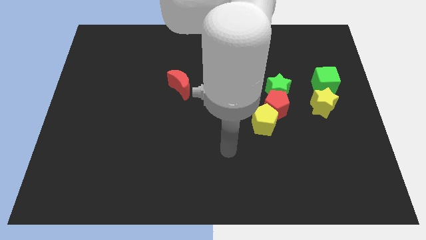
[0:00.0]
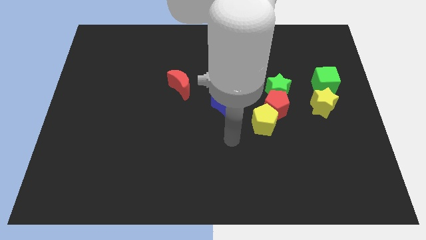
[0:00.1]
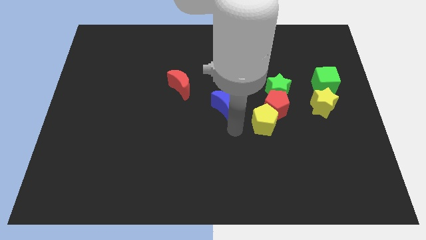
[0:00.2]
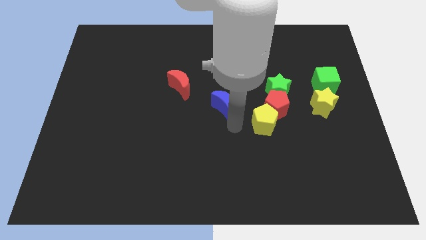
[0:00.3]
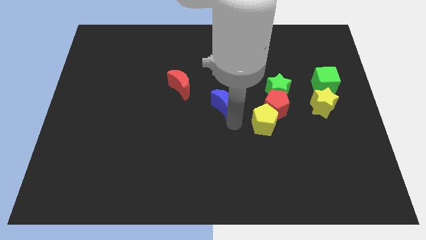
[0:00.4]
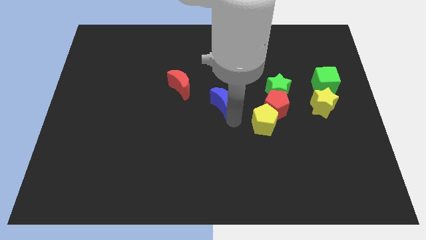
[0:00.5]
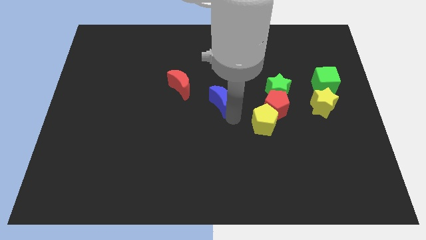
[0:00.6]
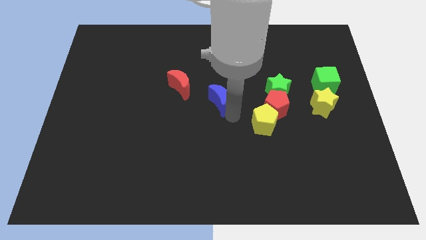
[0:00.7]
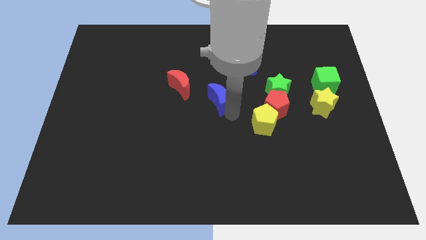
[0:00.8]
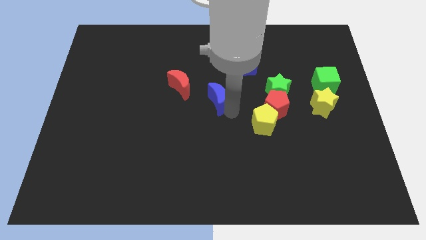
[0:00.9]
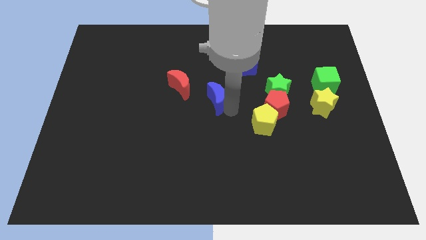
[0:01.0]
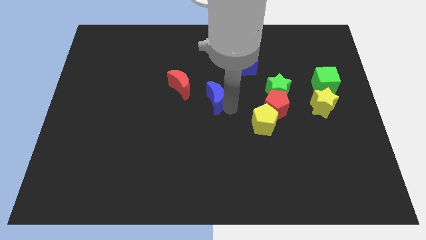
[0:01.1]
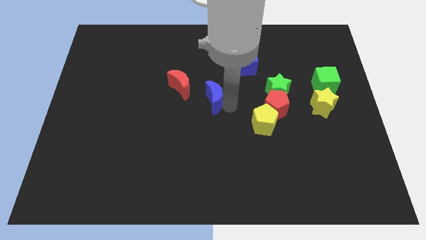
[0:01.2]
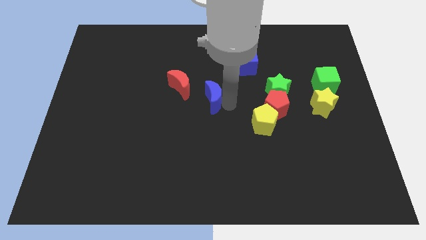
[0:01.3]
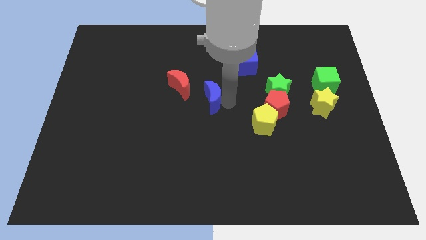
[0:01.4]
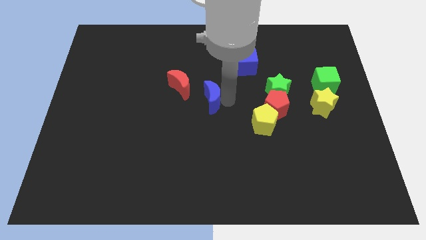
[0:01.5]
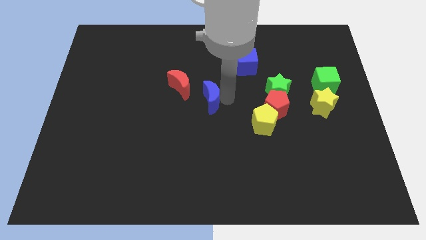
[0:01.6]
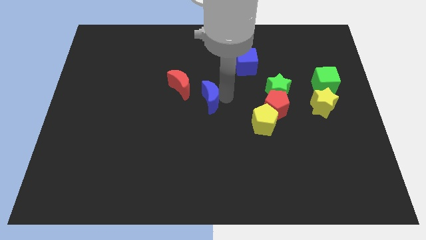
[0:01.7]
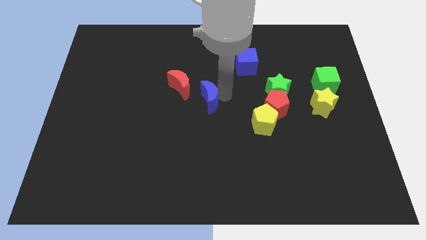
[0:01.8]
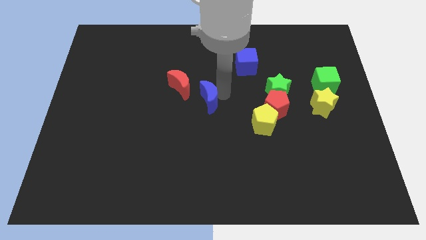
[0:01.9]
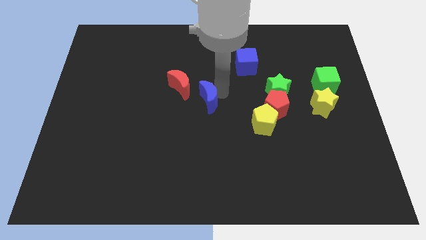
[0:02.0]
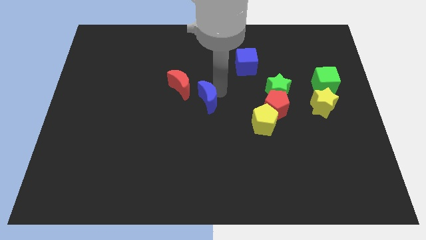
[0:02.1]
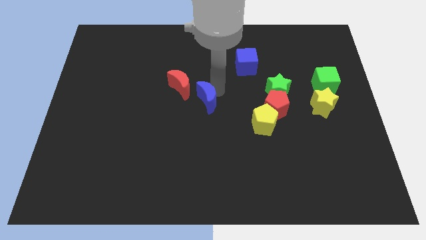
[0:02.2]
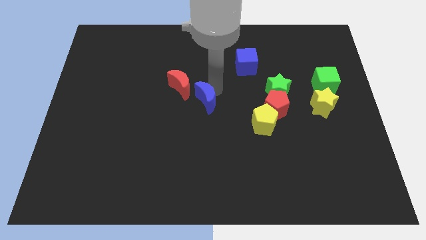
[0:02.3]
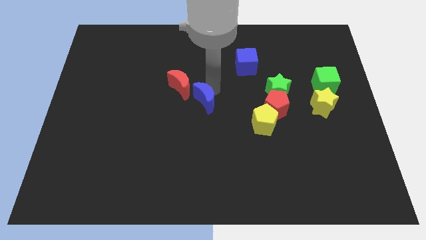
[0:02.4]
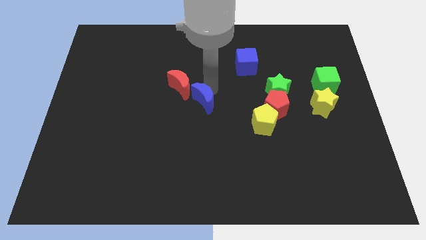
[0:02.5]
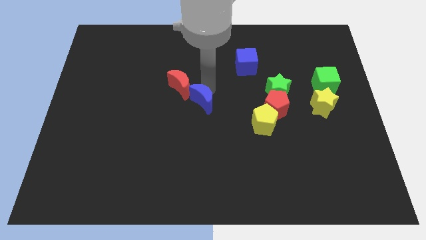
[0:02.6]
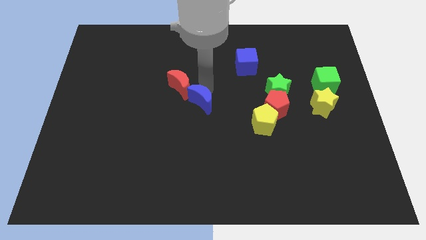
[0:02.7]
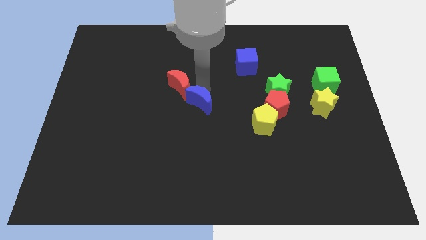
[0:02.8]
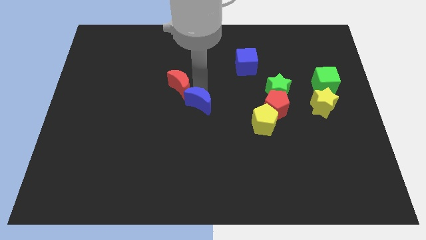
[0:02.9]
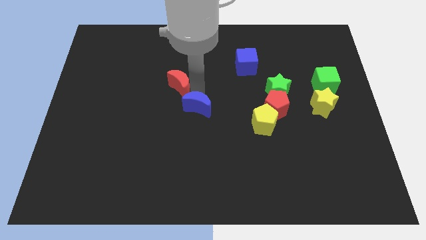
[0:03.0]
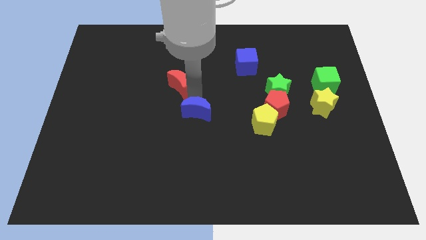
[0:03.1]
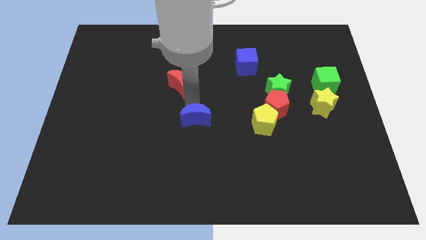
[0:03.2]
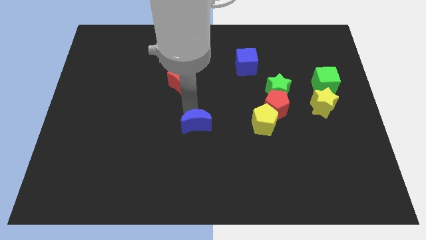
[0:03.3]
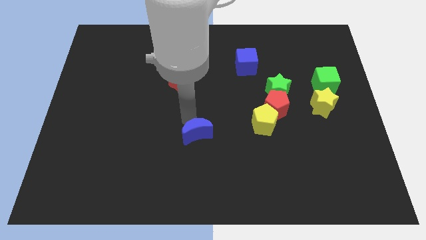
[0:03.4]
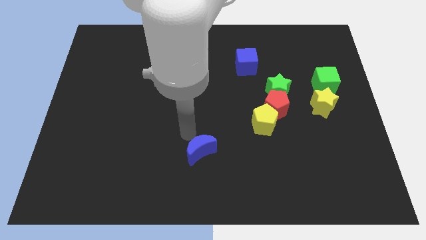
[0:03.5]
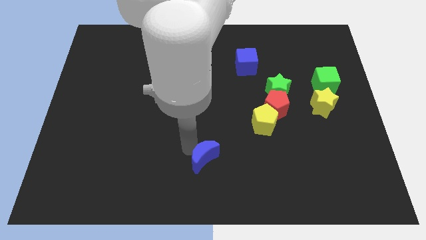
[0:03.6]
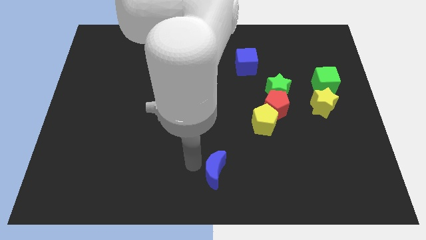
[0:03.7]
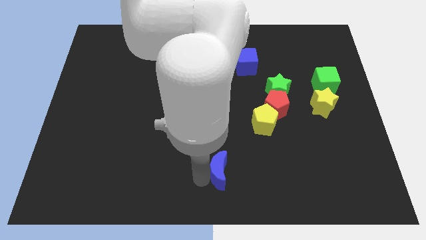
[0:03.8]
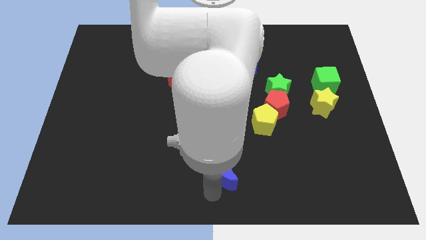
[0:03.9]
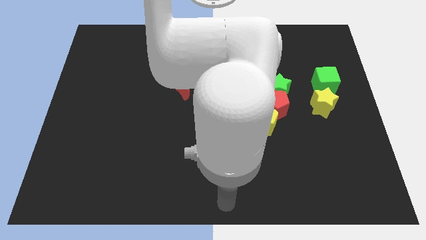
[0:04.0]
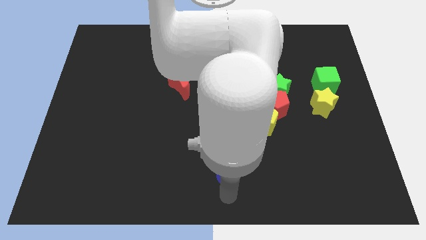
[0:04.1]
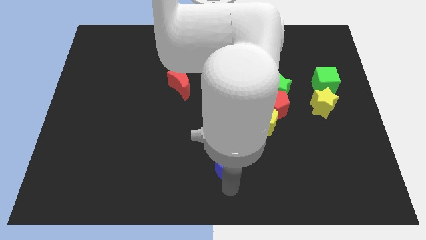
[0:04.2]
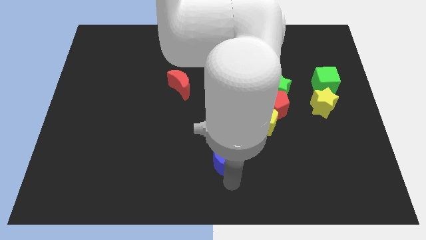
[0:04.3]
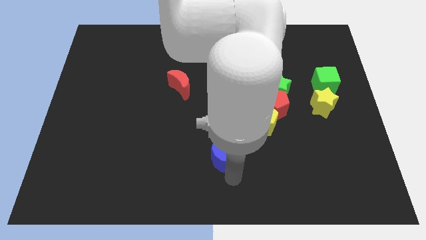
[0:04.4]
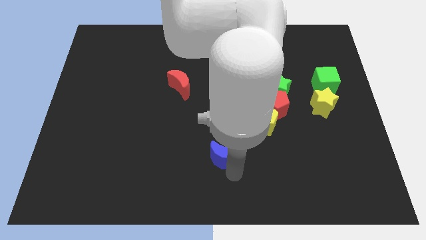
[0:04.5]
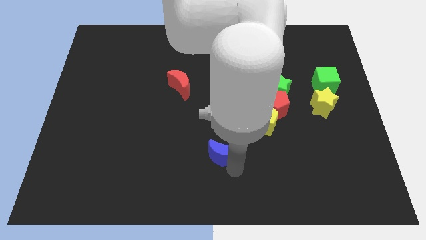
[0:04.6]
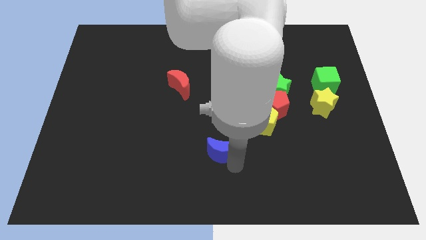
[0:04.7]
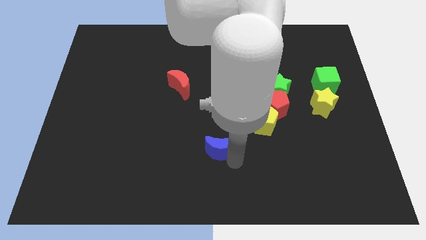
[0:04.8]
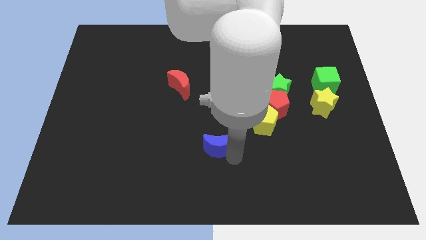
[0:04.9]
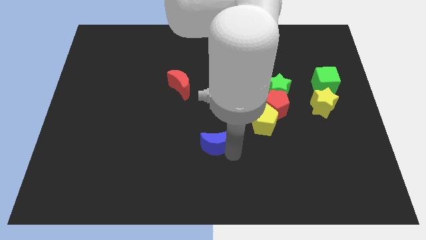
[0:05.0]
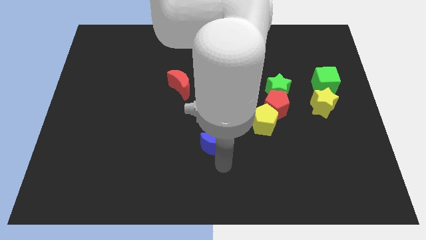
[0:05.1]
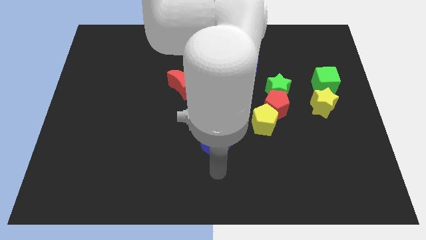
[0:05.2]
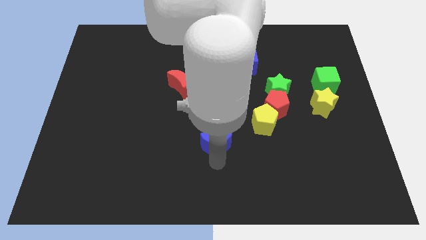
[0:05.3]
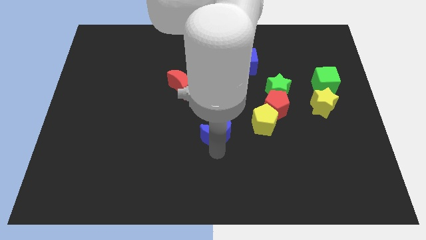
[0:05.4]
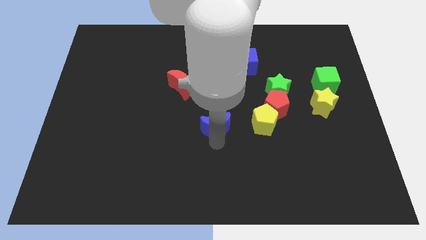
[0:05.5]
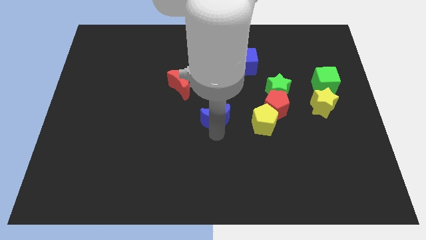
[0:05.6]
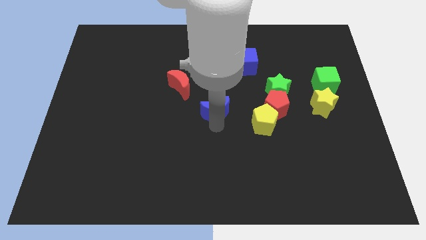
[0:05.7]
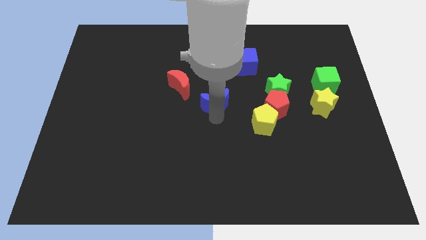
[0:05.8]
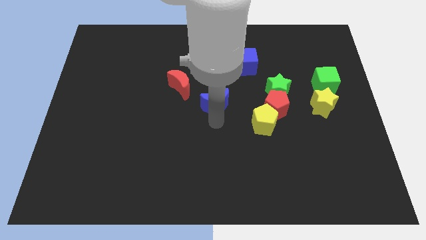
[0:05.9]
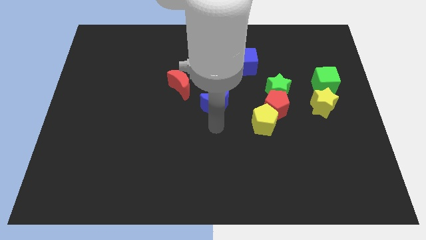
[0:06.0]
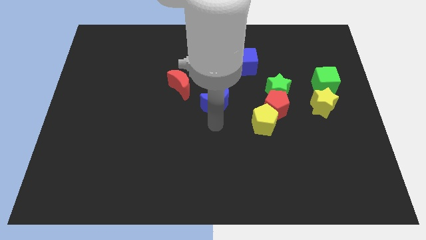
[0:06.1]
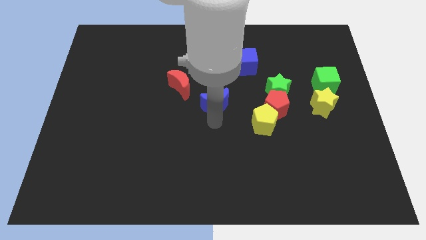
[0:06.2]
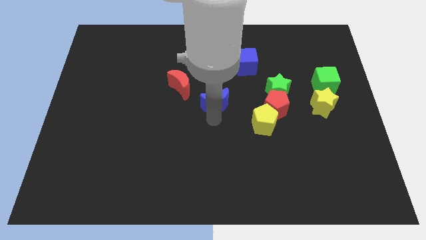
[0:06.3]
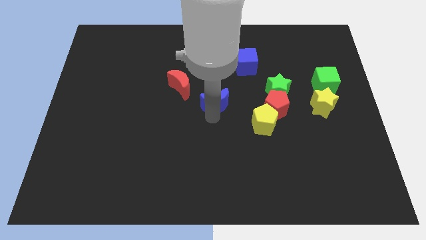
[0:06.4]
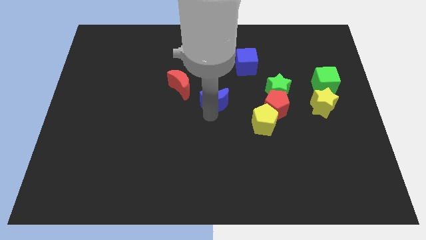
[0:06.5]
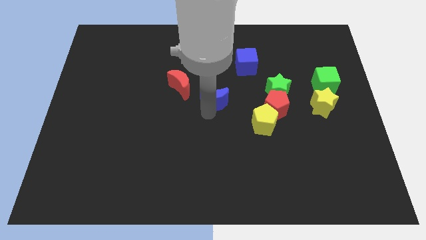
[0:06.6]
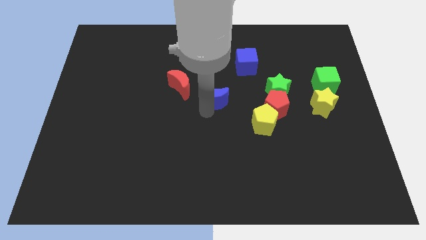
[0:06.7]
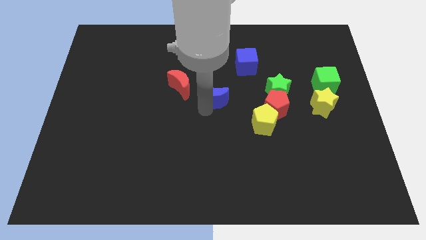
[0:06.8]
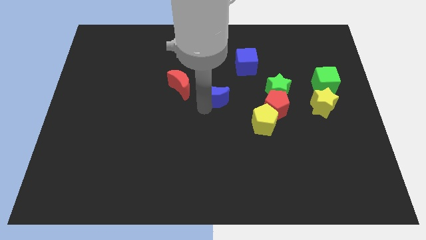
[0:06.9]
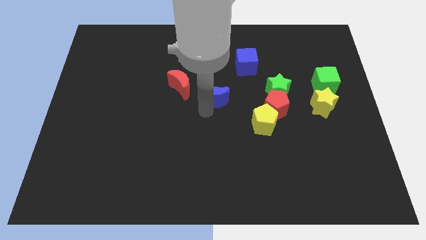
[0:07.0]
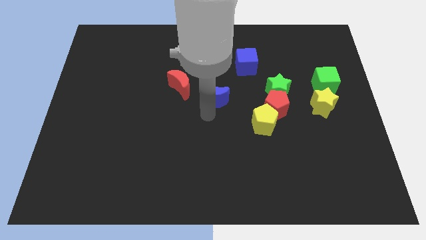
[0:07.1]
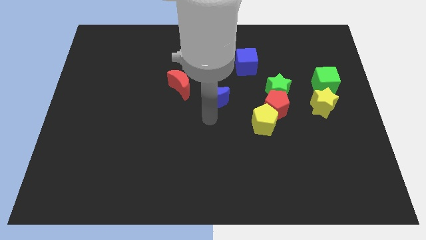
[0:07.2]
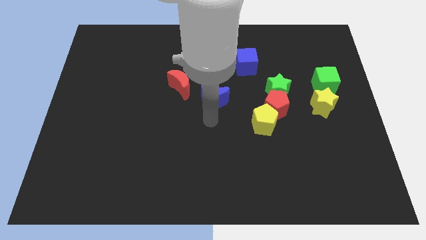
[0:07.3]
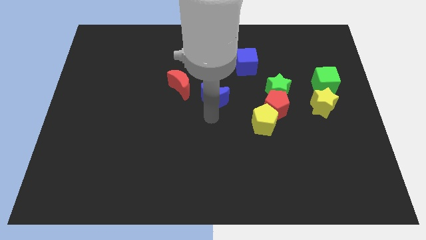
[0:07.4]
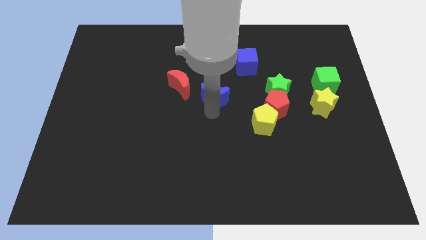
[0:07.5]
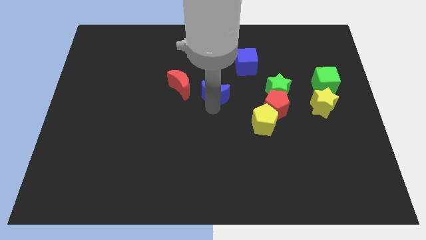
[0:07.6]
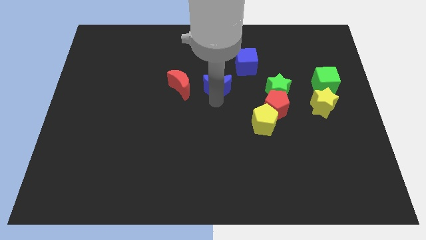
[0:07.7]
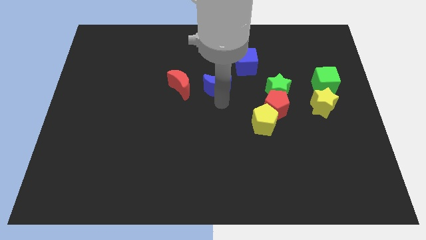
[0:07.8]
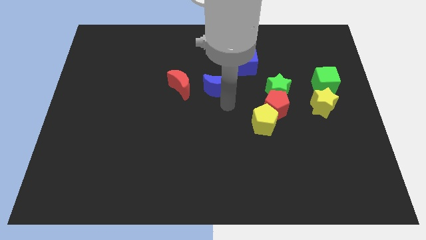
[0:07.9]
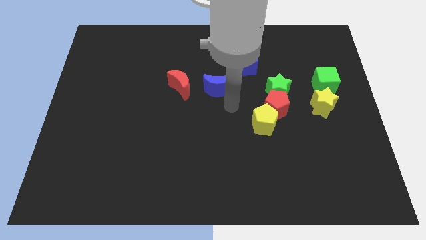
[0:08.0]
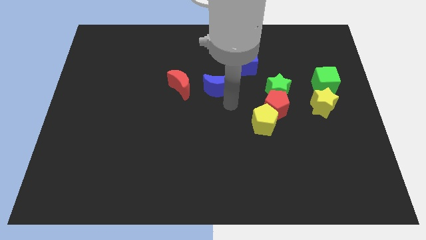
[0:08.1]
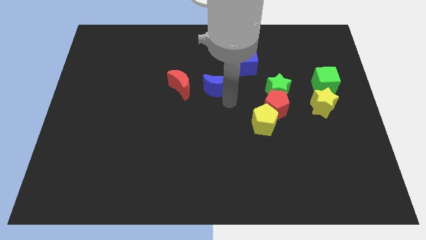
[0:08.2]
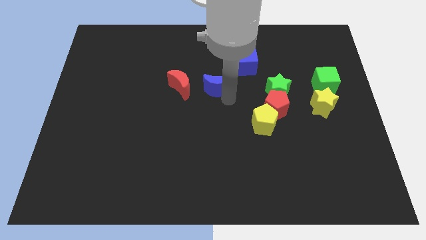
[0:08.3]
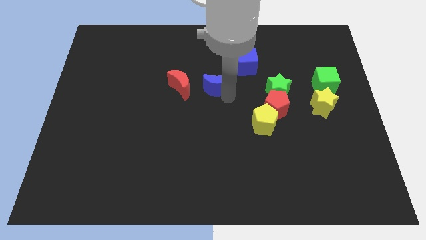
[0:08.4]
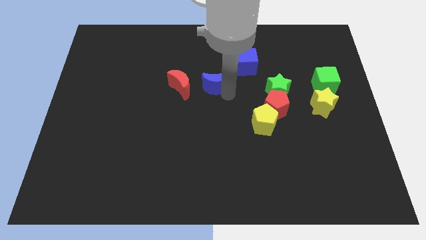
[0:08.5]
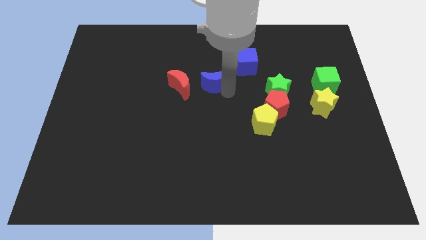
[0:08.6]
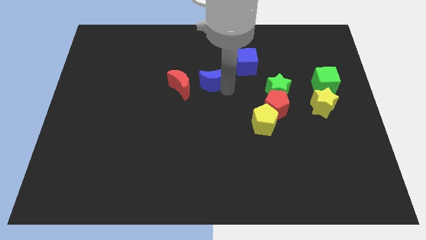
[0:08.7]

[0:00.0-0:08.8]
slide the blue moon diagonally up and to the right of the red moon
